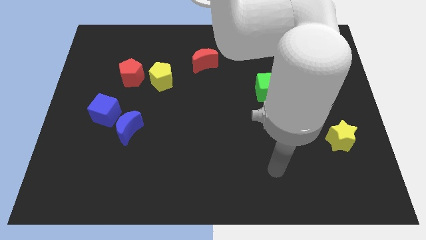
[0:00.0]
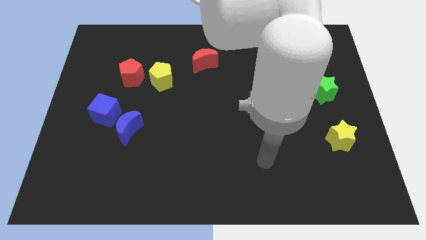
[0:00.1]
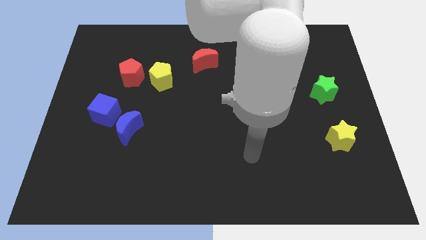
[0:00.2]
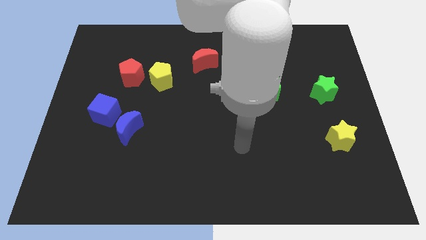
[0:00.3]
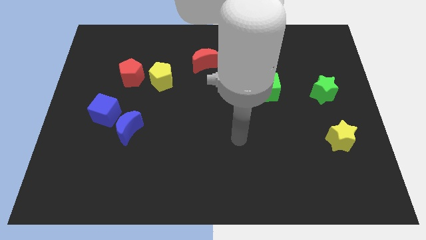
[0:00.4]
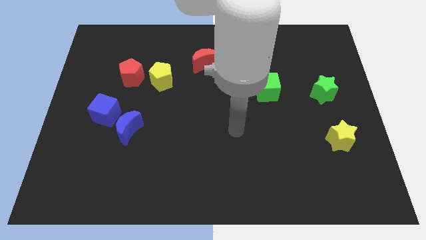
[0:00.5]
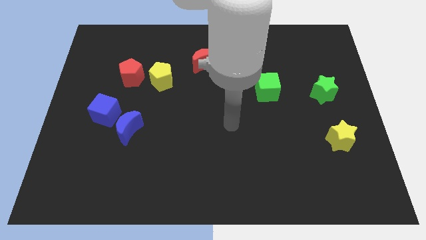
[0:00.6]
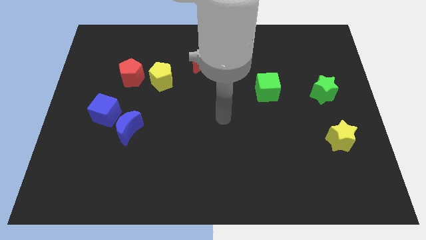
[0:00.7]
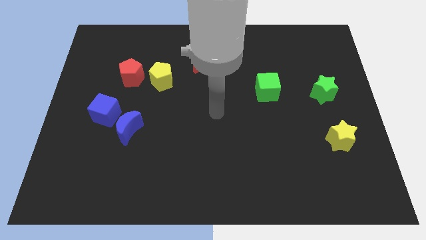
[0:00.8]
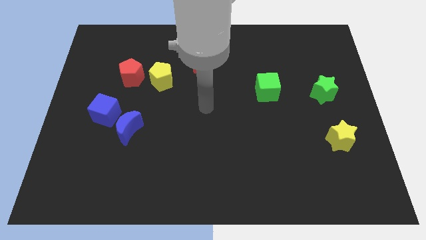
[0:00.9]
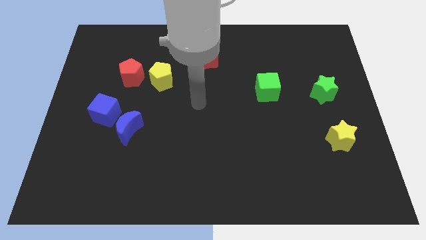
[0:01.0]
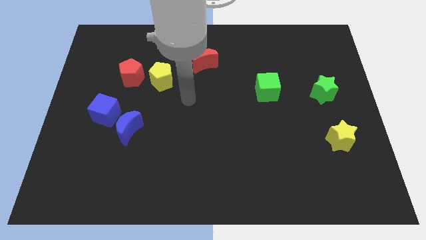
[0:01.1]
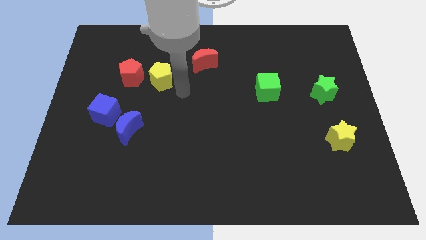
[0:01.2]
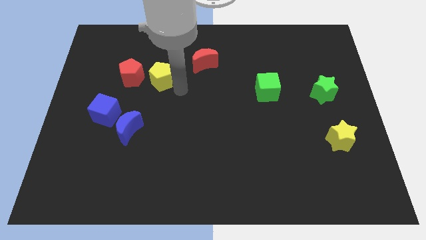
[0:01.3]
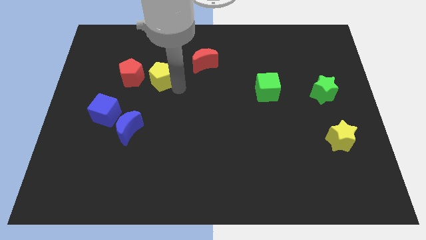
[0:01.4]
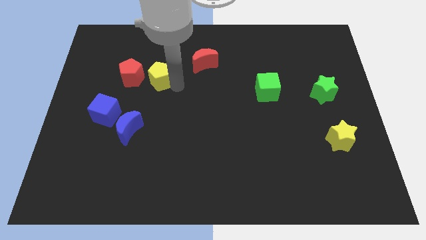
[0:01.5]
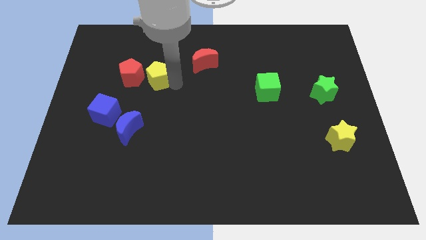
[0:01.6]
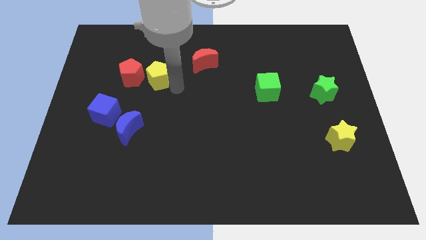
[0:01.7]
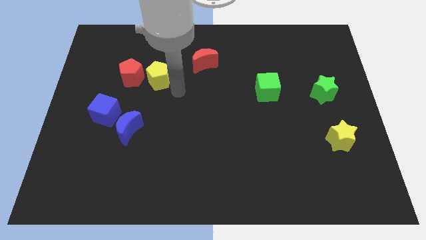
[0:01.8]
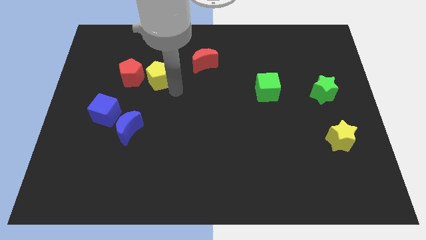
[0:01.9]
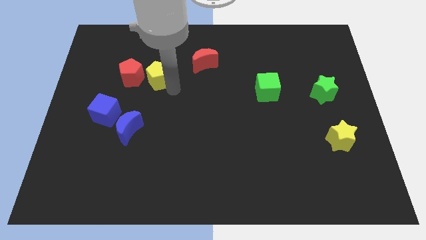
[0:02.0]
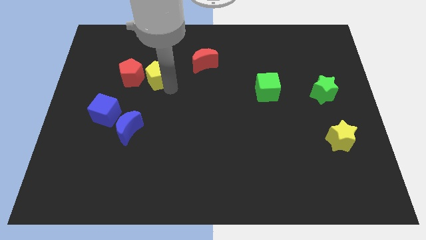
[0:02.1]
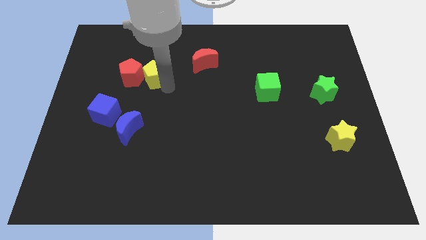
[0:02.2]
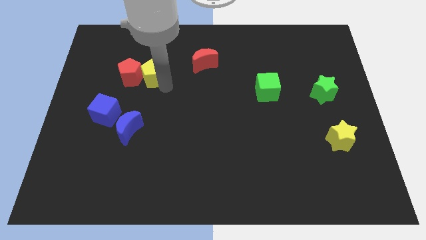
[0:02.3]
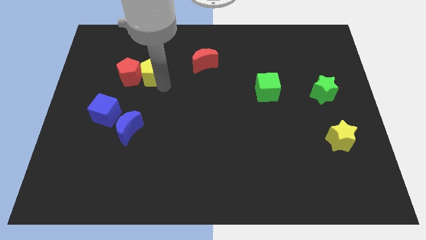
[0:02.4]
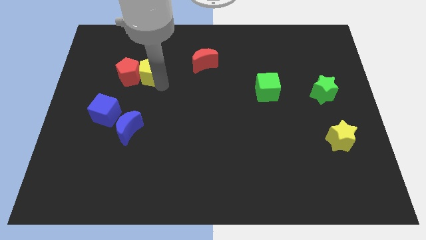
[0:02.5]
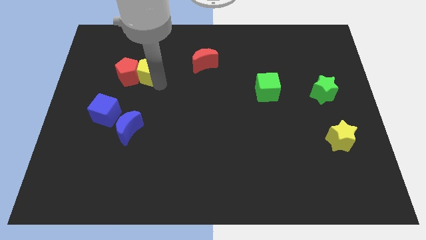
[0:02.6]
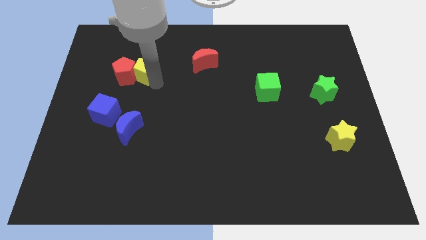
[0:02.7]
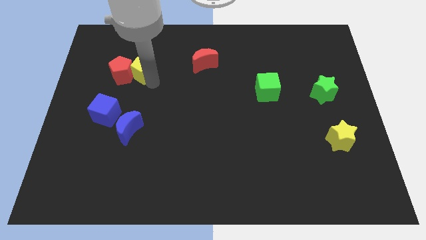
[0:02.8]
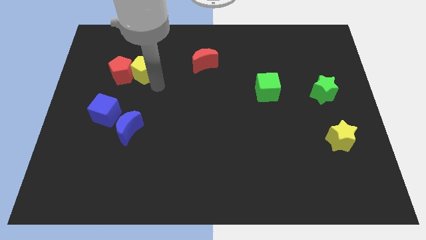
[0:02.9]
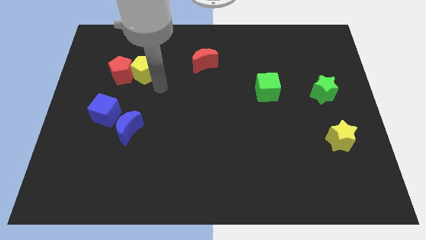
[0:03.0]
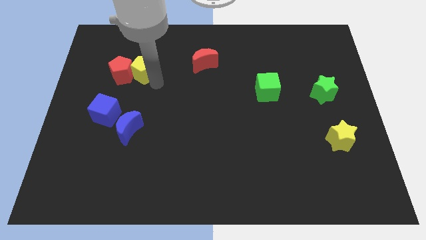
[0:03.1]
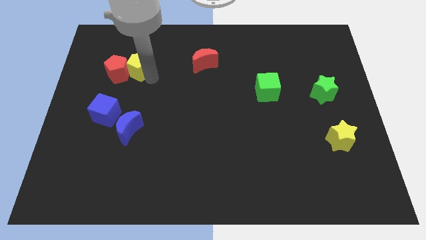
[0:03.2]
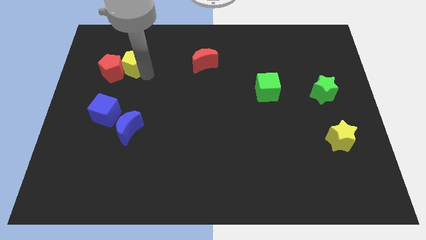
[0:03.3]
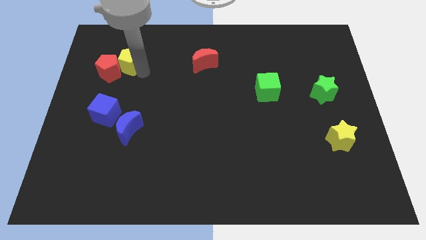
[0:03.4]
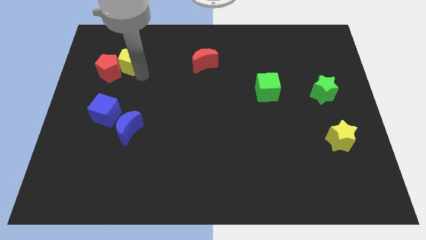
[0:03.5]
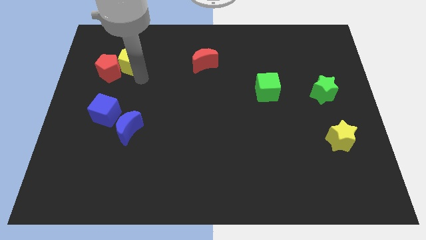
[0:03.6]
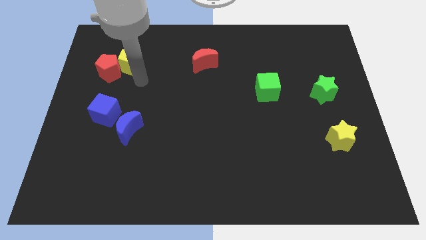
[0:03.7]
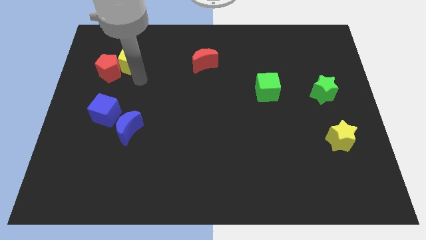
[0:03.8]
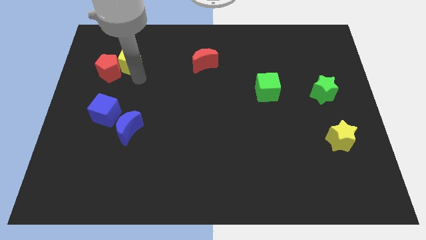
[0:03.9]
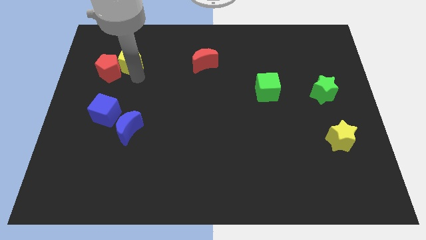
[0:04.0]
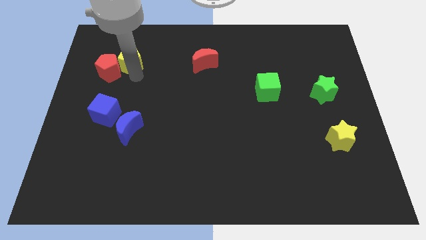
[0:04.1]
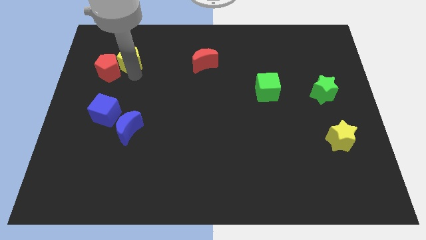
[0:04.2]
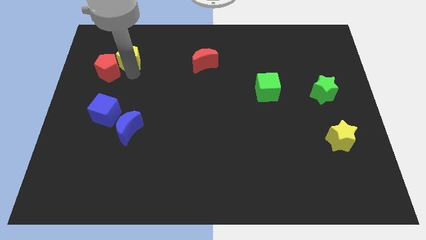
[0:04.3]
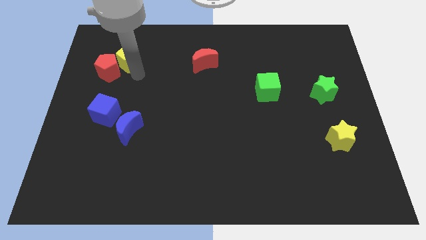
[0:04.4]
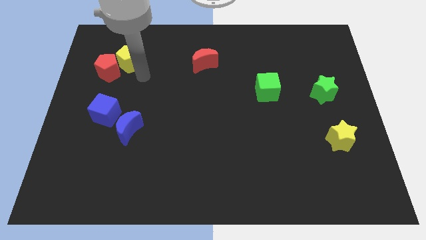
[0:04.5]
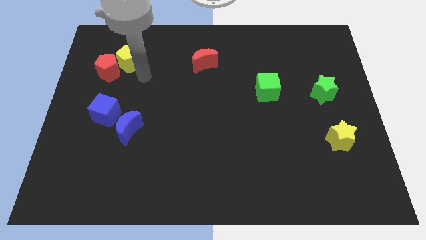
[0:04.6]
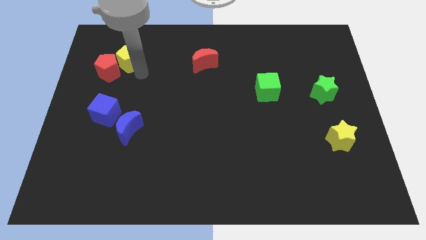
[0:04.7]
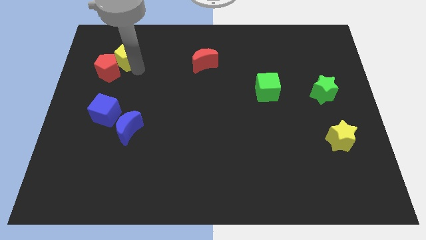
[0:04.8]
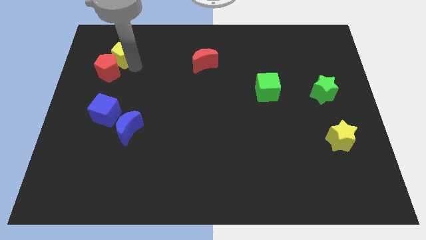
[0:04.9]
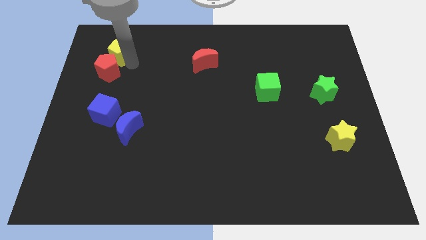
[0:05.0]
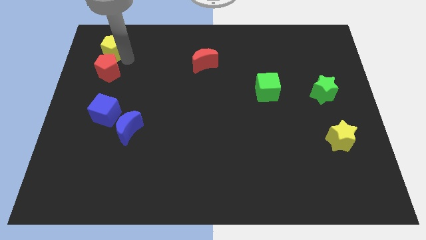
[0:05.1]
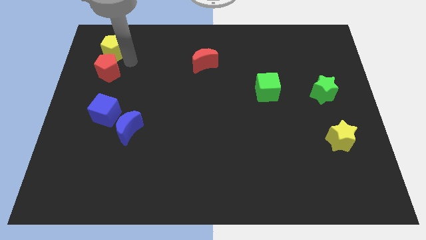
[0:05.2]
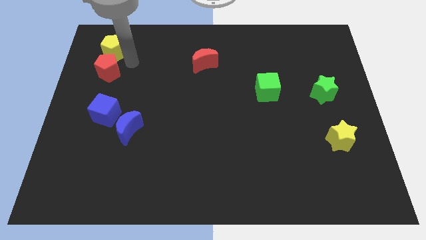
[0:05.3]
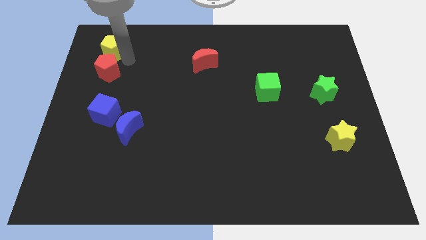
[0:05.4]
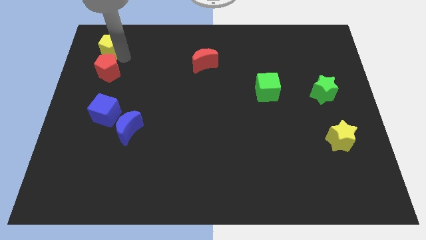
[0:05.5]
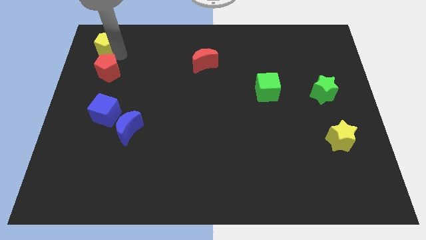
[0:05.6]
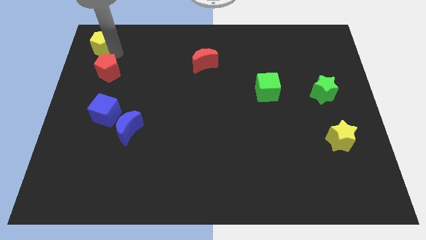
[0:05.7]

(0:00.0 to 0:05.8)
push the yellow pentagon to the top left corner

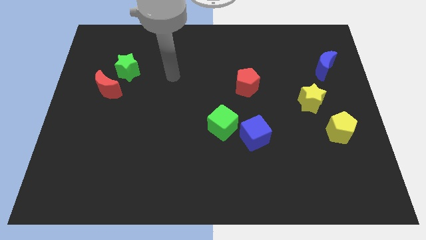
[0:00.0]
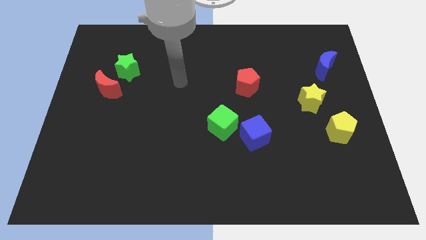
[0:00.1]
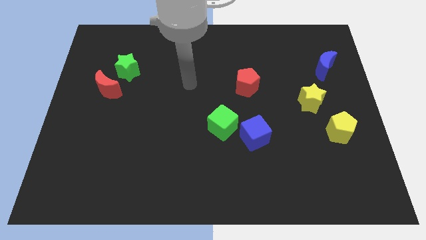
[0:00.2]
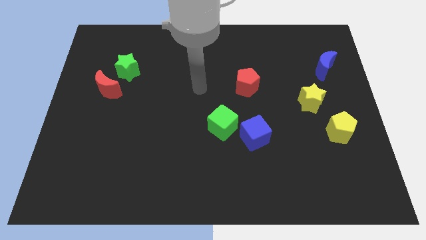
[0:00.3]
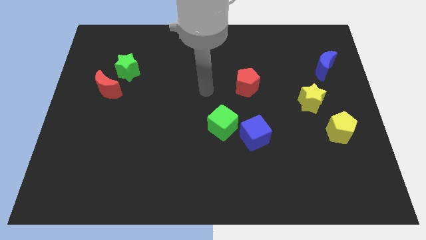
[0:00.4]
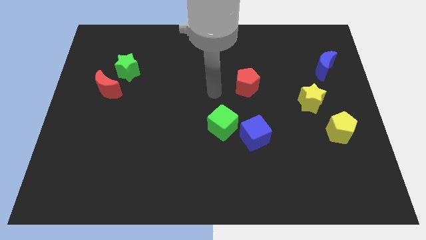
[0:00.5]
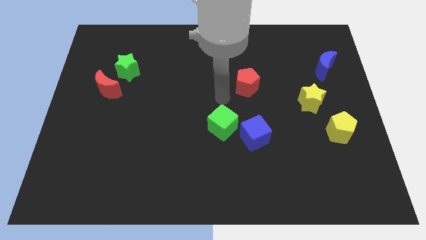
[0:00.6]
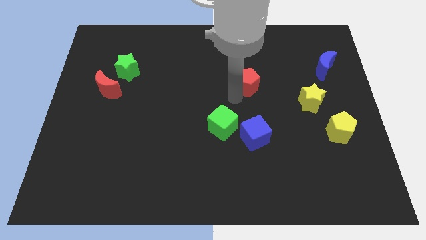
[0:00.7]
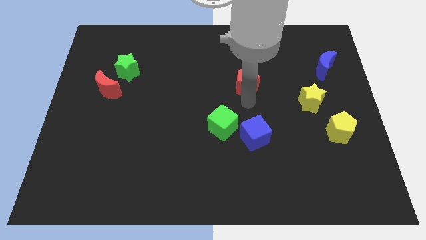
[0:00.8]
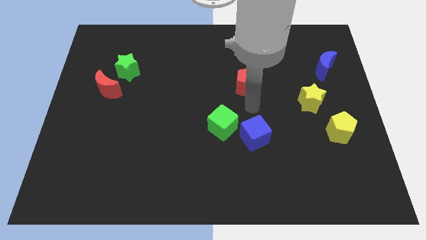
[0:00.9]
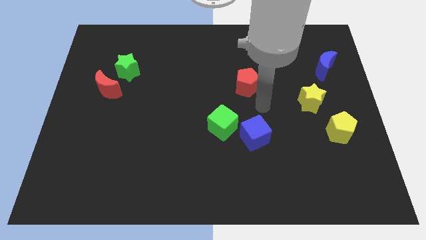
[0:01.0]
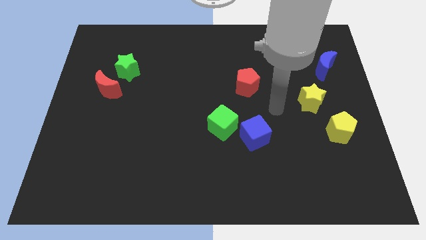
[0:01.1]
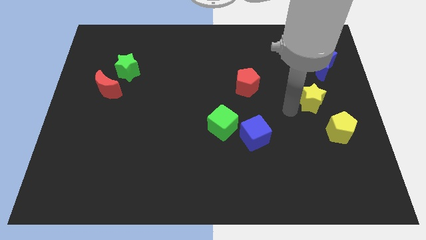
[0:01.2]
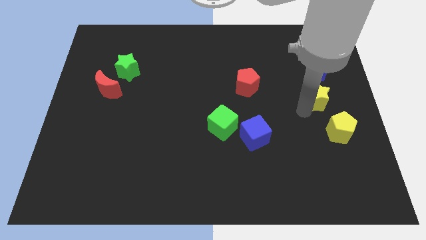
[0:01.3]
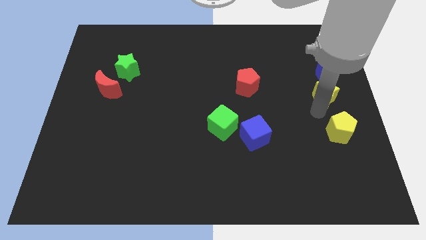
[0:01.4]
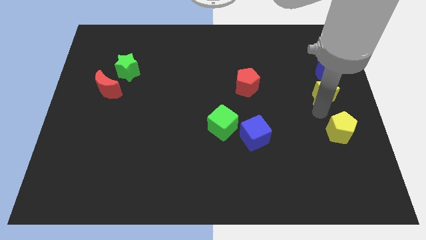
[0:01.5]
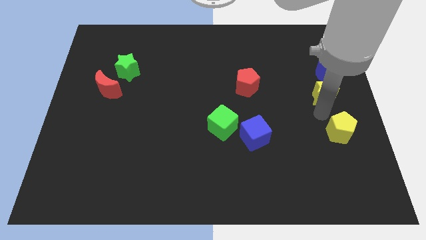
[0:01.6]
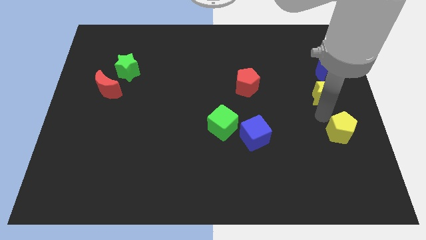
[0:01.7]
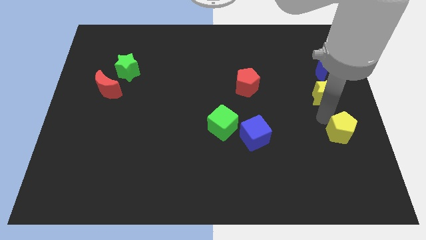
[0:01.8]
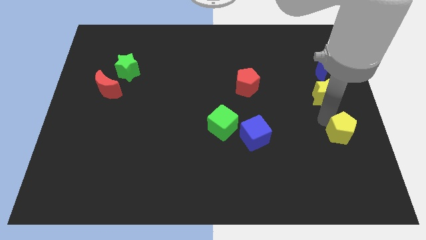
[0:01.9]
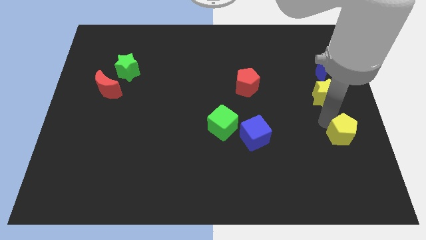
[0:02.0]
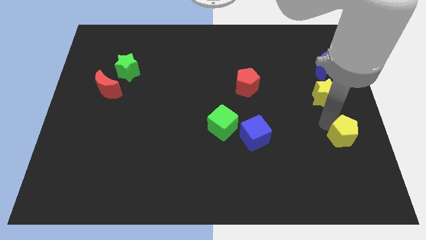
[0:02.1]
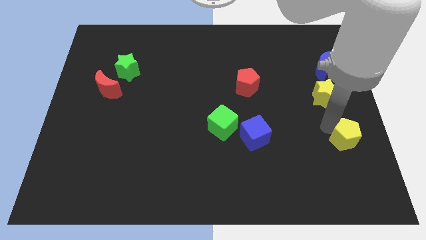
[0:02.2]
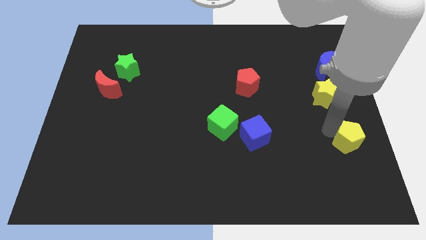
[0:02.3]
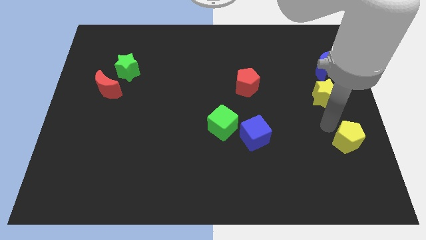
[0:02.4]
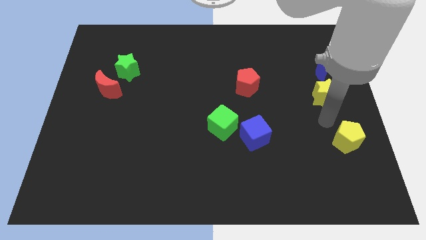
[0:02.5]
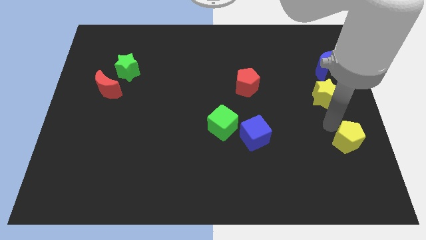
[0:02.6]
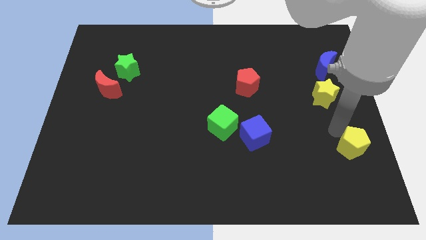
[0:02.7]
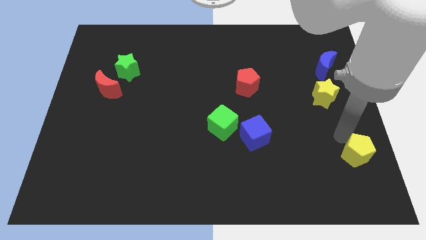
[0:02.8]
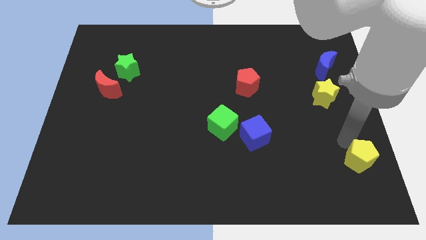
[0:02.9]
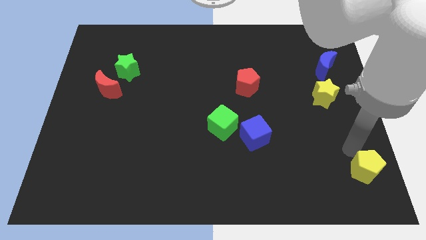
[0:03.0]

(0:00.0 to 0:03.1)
push the yellow pentagon to the lower right corner
